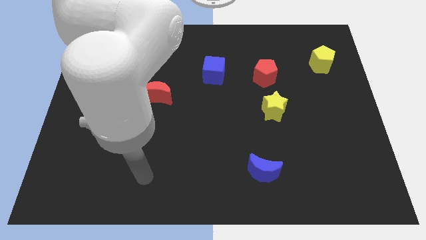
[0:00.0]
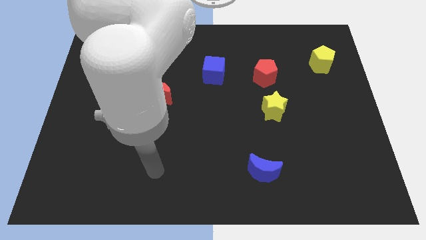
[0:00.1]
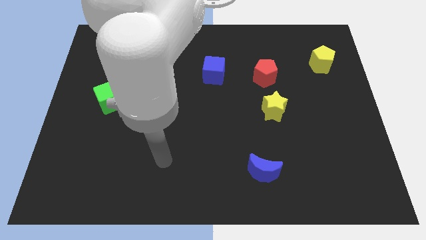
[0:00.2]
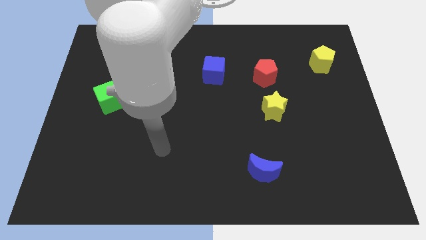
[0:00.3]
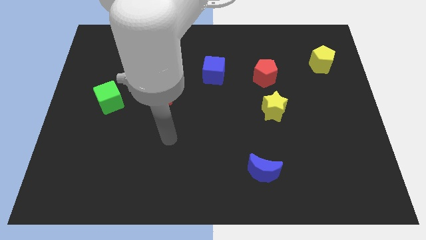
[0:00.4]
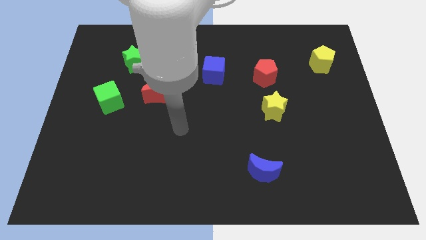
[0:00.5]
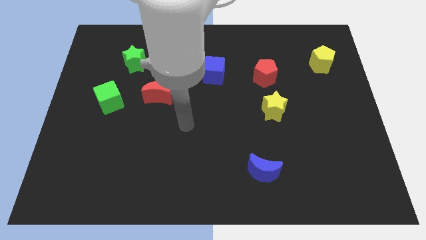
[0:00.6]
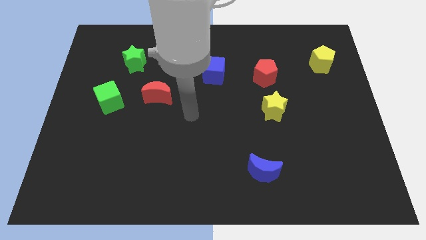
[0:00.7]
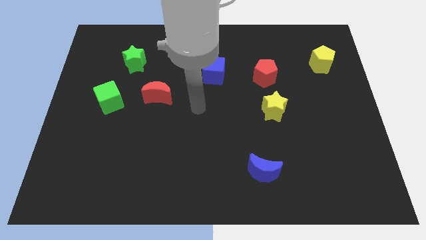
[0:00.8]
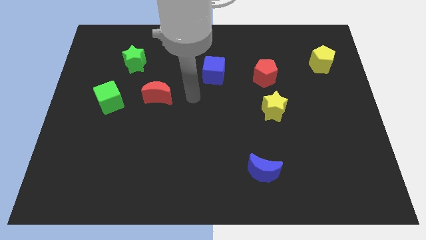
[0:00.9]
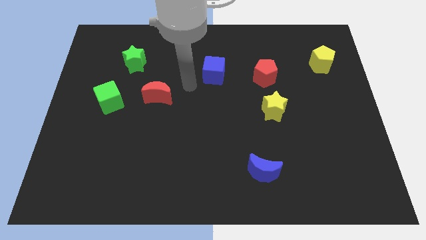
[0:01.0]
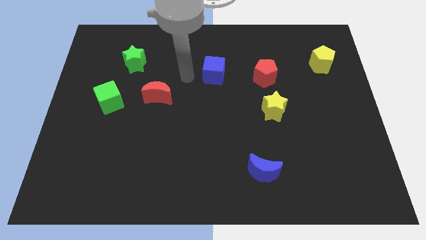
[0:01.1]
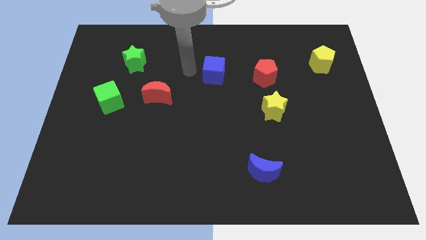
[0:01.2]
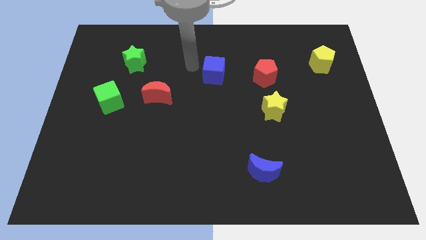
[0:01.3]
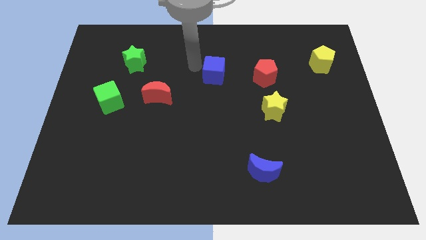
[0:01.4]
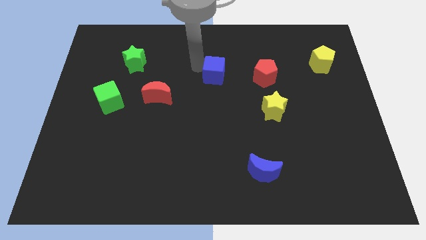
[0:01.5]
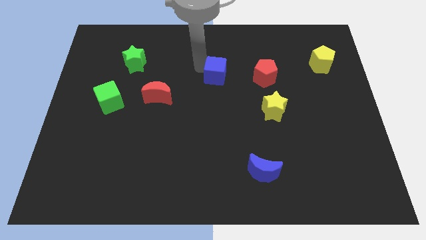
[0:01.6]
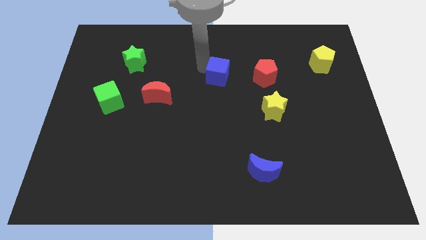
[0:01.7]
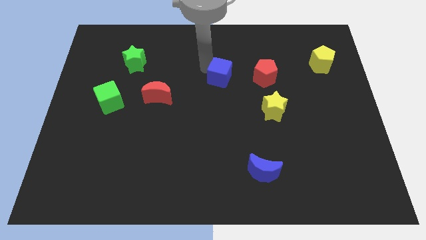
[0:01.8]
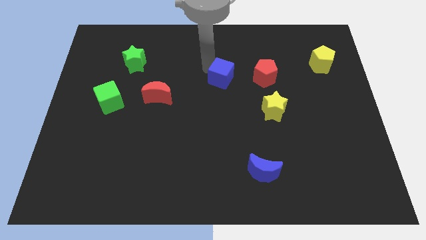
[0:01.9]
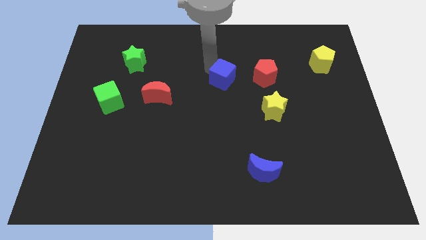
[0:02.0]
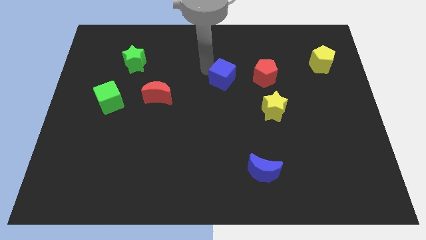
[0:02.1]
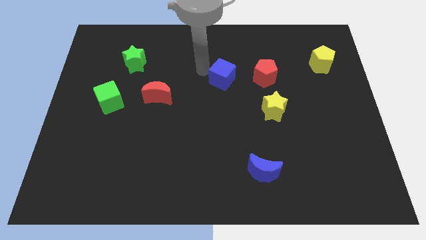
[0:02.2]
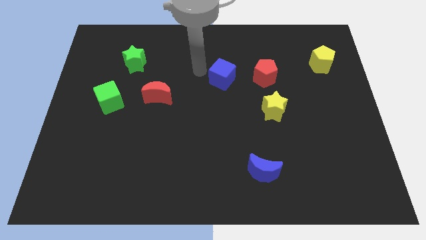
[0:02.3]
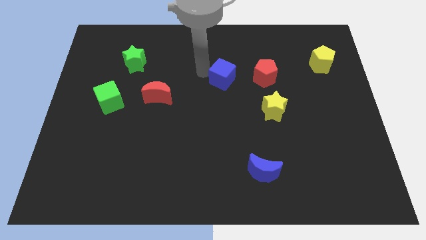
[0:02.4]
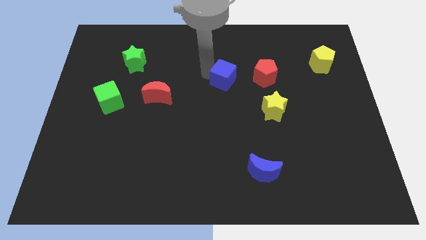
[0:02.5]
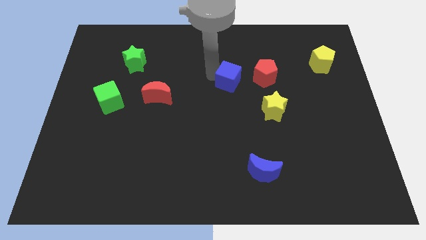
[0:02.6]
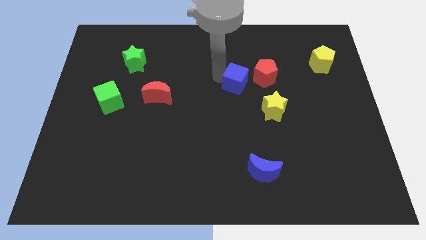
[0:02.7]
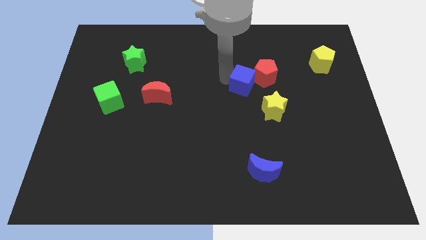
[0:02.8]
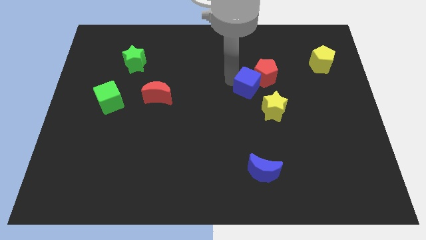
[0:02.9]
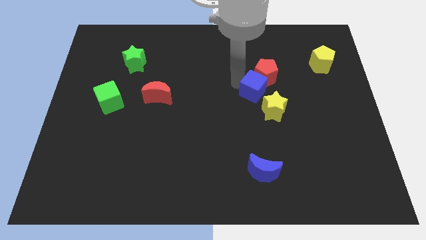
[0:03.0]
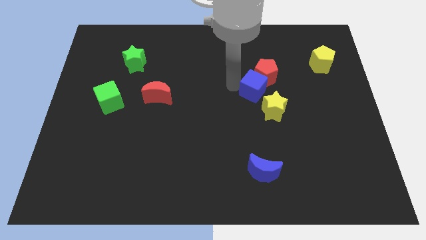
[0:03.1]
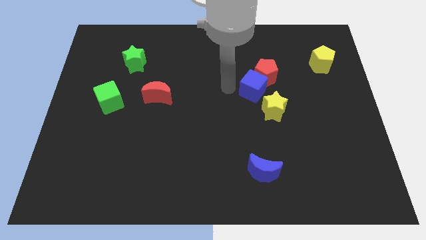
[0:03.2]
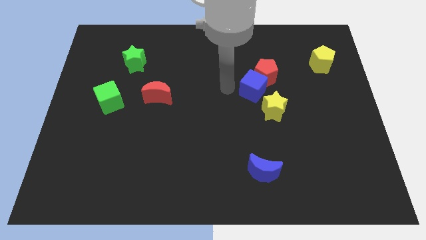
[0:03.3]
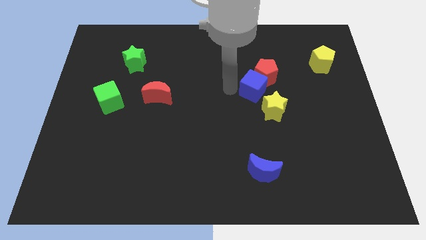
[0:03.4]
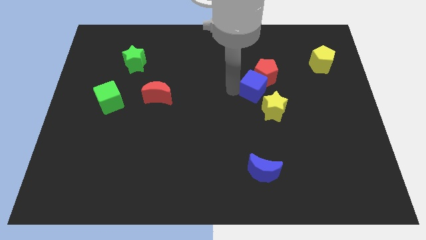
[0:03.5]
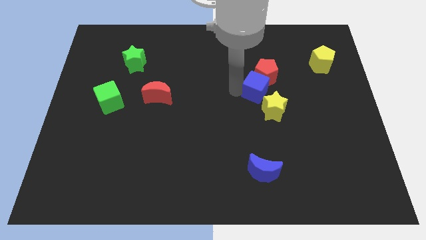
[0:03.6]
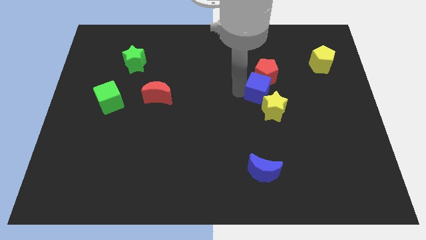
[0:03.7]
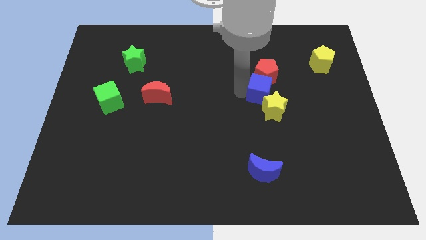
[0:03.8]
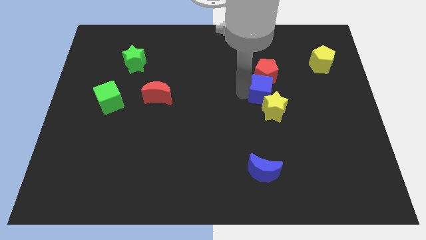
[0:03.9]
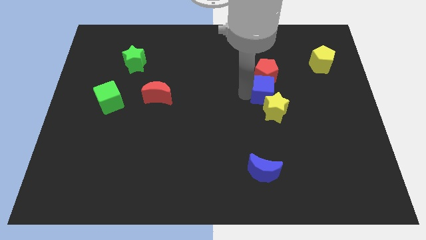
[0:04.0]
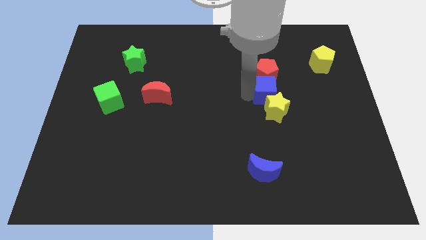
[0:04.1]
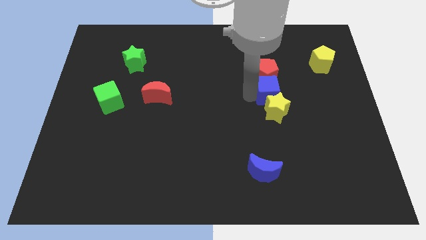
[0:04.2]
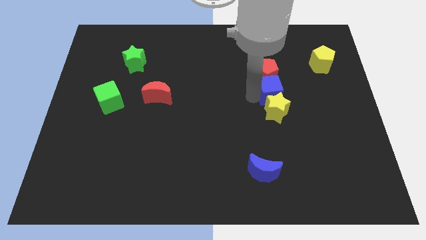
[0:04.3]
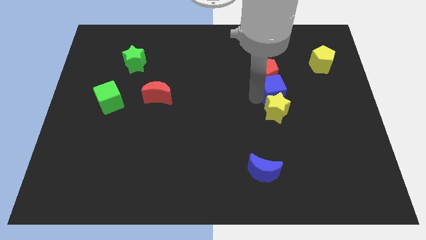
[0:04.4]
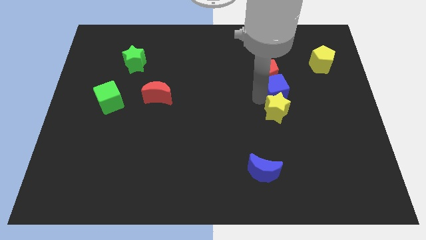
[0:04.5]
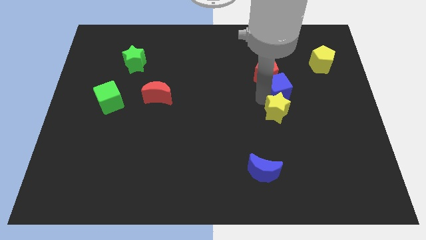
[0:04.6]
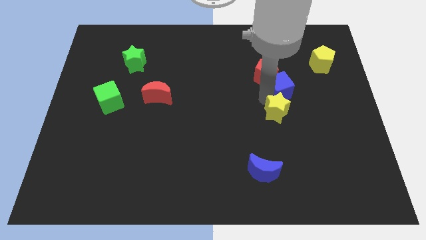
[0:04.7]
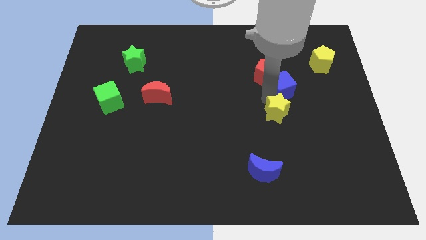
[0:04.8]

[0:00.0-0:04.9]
put the blue cube just right of the red pentagon

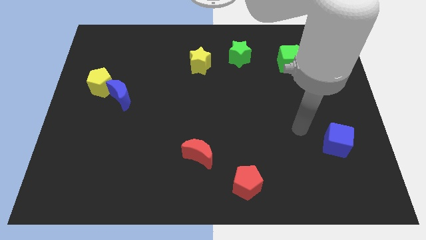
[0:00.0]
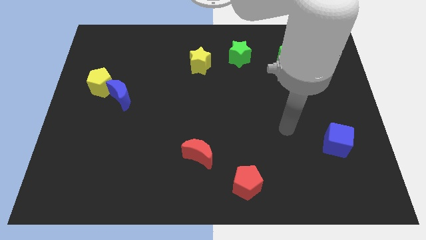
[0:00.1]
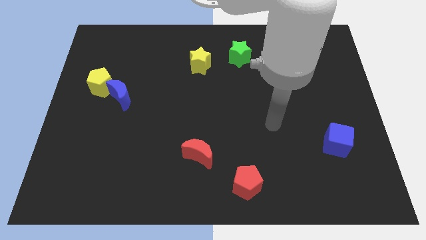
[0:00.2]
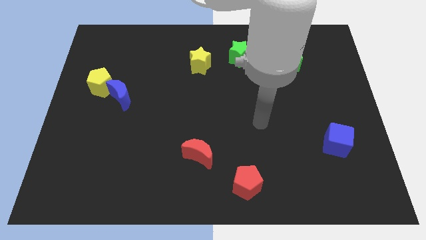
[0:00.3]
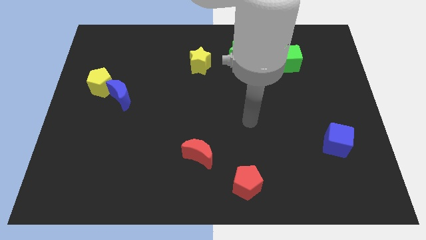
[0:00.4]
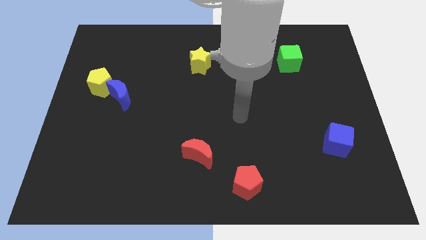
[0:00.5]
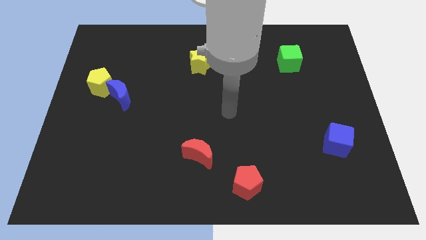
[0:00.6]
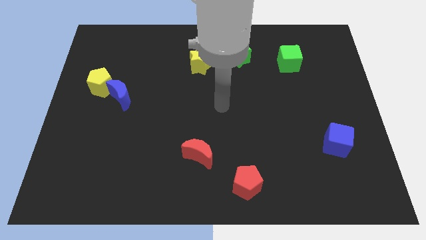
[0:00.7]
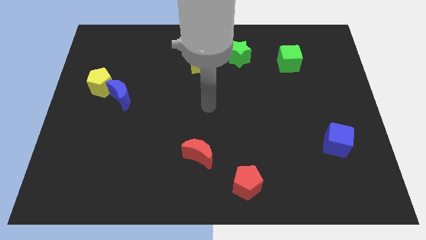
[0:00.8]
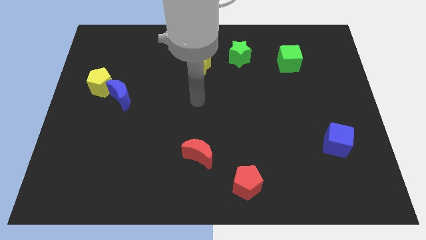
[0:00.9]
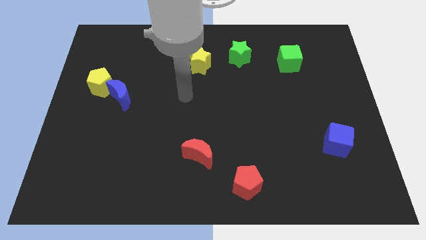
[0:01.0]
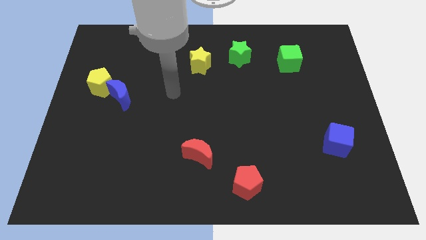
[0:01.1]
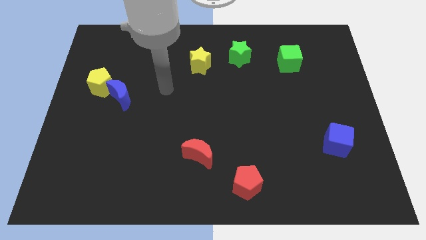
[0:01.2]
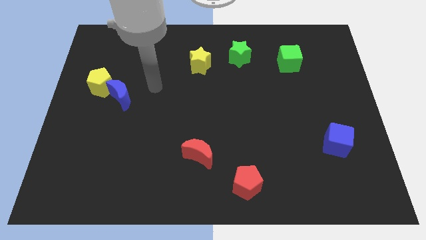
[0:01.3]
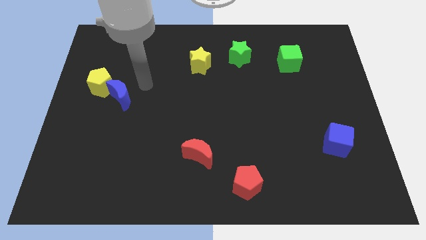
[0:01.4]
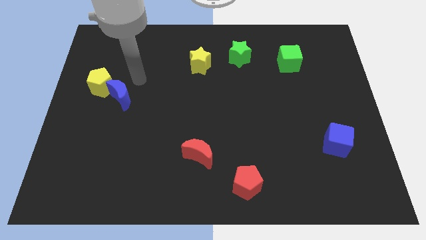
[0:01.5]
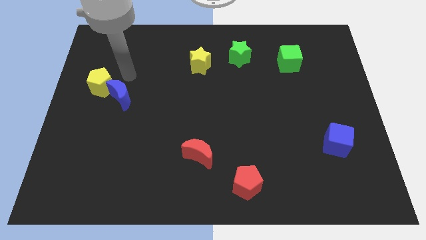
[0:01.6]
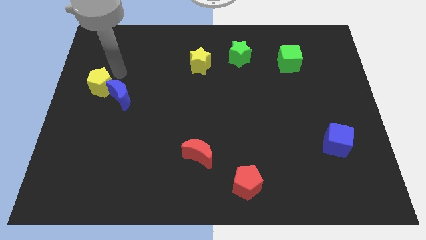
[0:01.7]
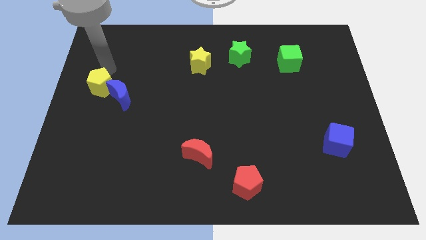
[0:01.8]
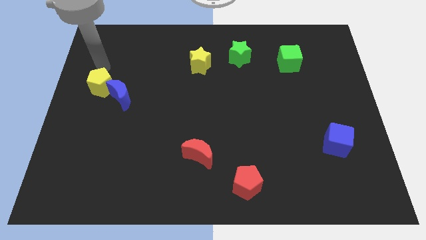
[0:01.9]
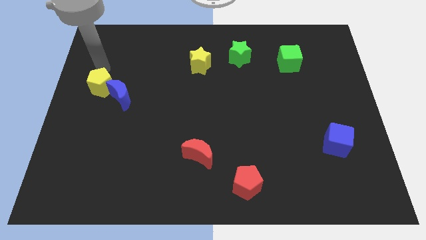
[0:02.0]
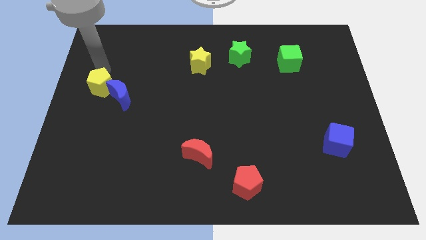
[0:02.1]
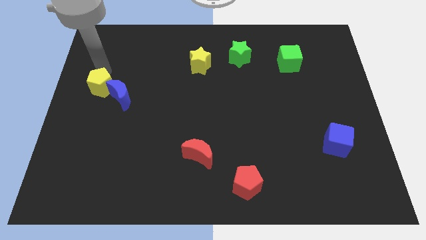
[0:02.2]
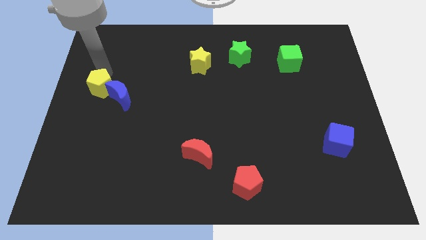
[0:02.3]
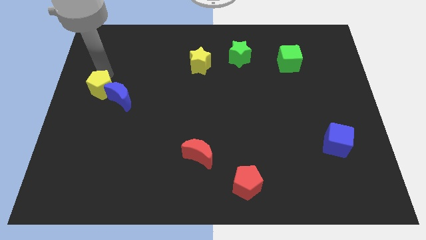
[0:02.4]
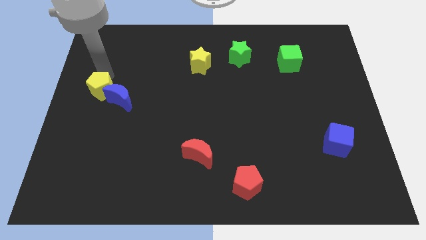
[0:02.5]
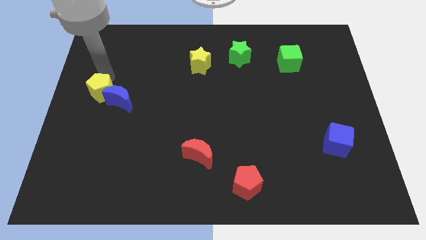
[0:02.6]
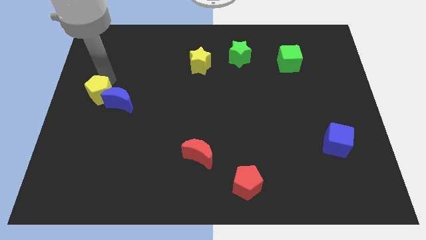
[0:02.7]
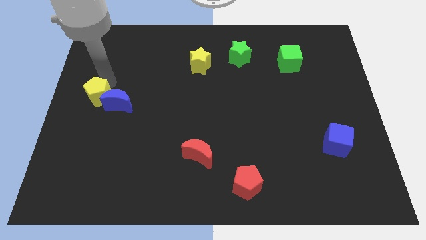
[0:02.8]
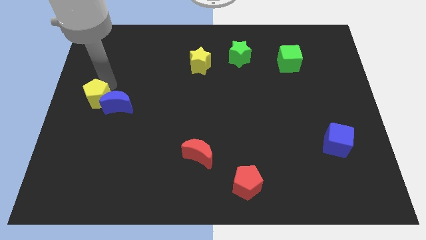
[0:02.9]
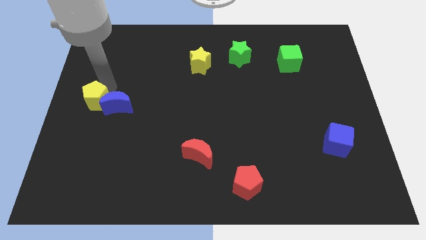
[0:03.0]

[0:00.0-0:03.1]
push the yellow pentagon to the bottom left side of the blue moon
